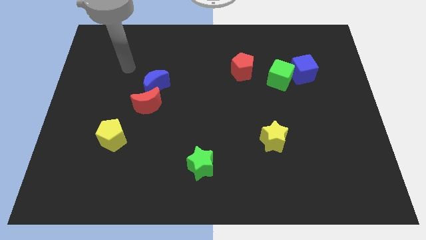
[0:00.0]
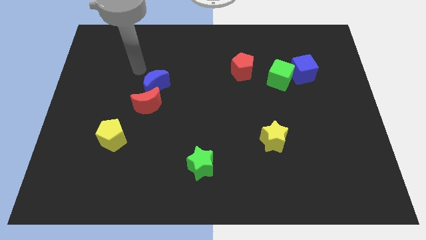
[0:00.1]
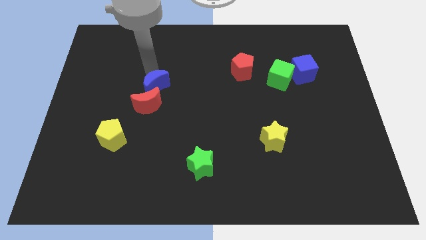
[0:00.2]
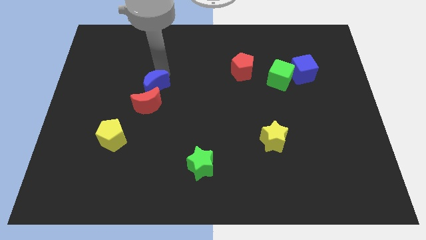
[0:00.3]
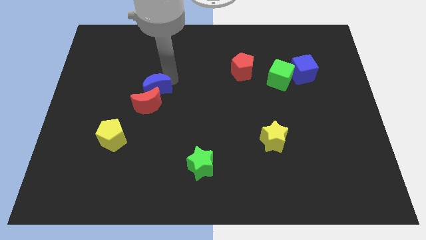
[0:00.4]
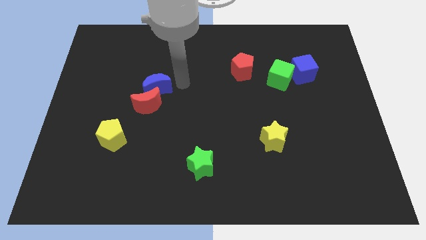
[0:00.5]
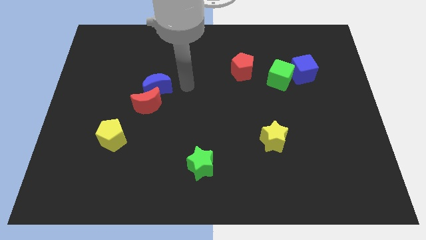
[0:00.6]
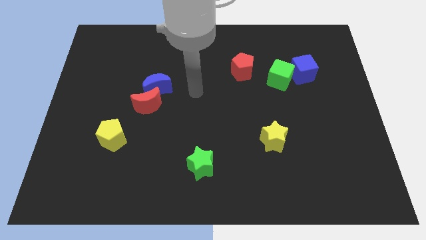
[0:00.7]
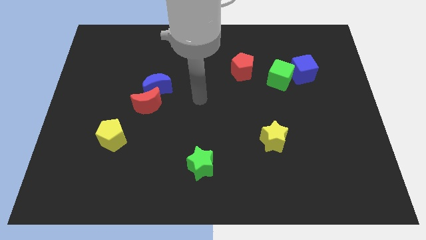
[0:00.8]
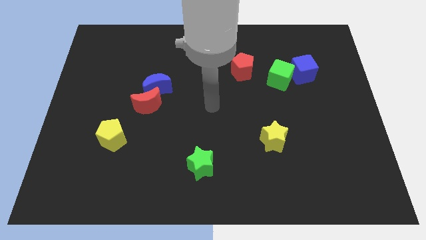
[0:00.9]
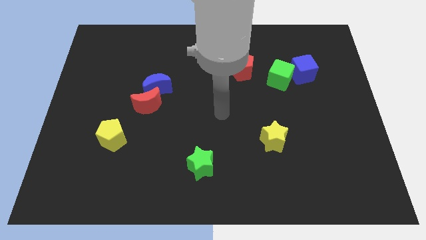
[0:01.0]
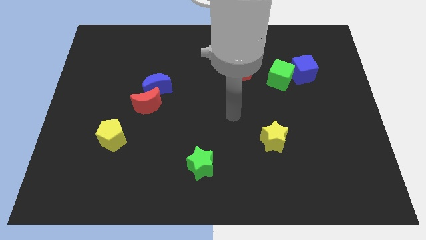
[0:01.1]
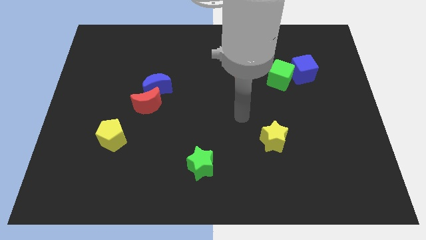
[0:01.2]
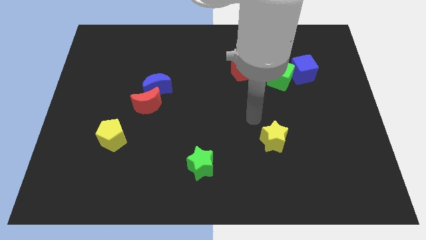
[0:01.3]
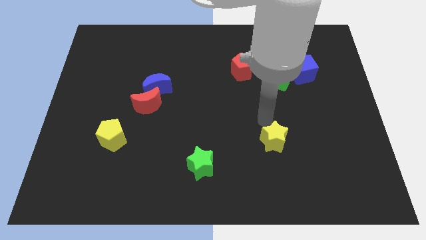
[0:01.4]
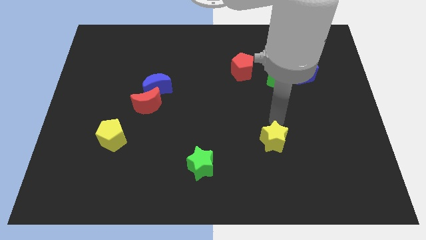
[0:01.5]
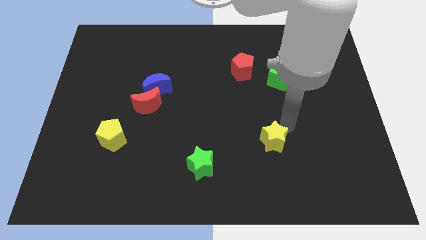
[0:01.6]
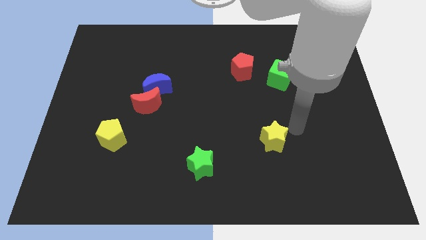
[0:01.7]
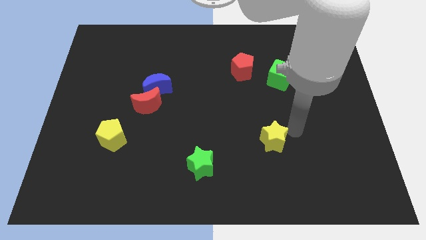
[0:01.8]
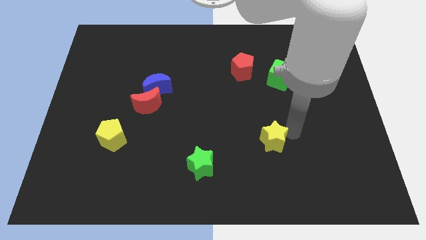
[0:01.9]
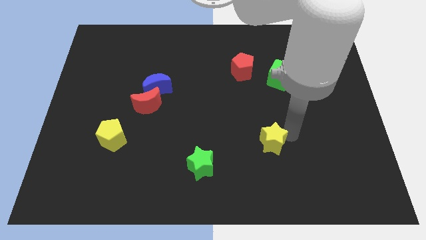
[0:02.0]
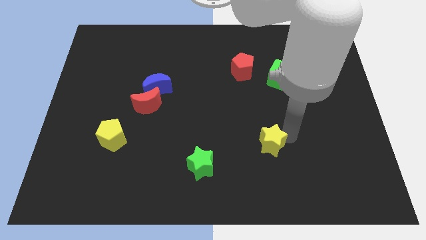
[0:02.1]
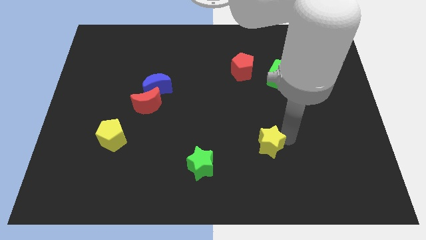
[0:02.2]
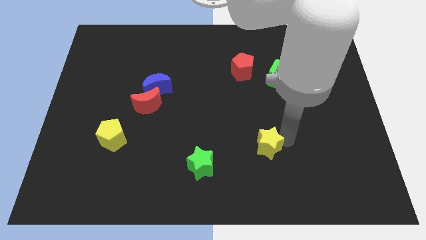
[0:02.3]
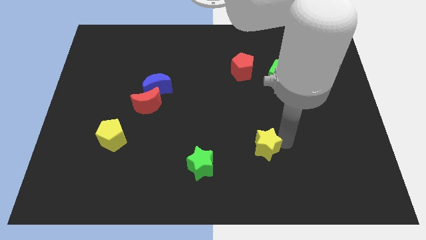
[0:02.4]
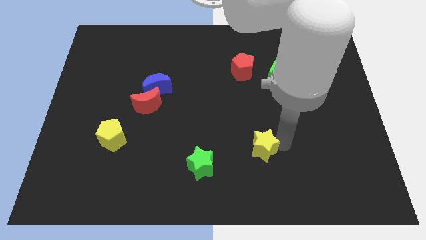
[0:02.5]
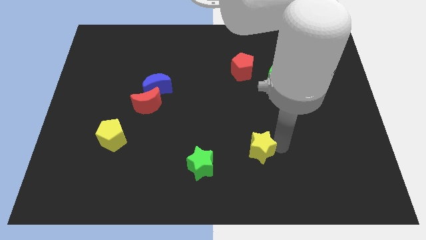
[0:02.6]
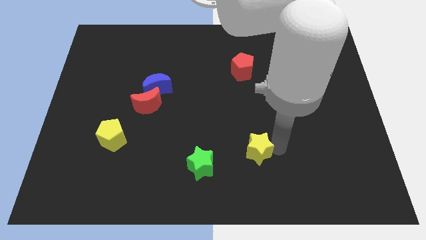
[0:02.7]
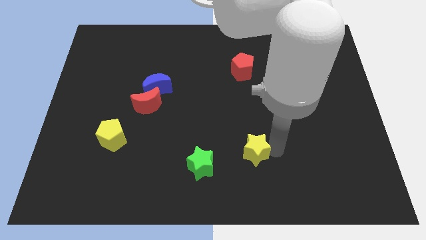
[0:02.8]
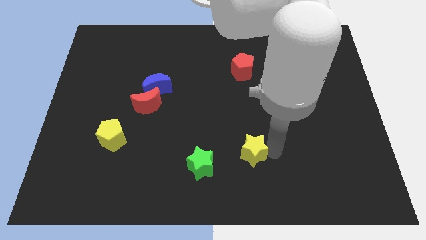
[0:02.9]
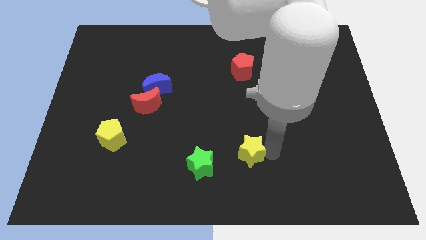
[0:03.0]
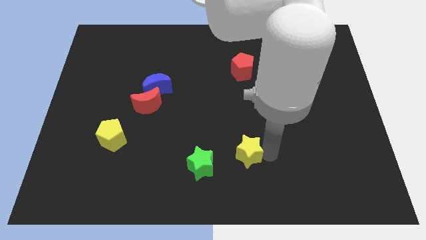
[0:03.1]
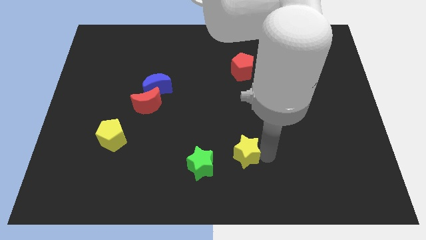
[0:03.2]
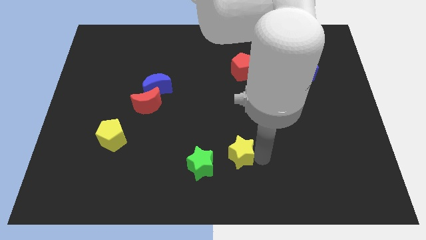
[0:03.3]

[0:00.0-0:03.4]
slightly slide the yellow star to the left

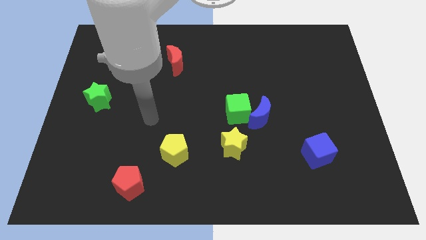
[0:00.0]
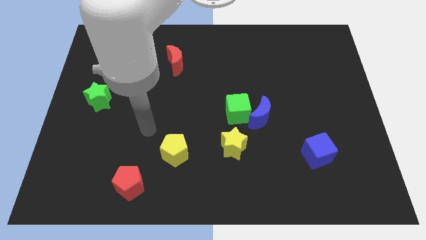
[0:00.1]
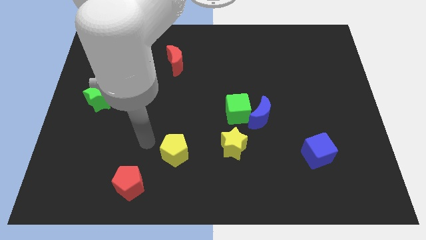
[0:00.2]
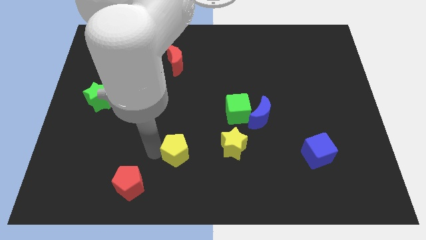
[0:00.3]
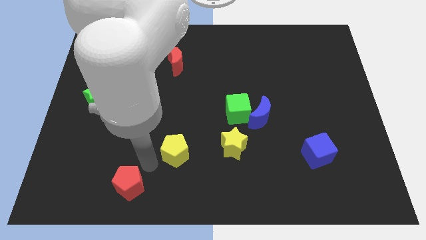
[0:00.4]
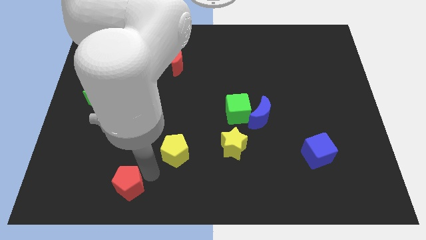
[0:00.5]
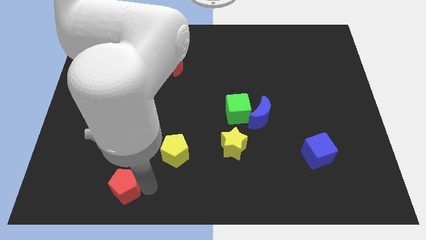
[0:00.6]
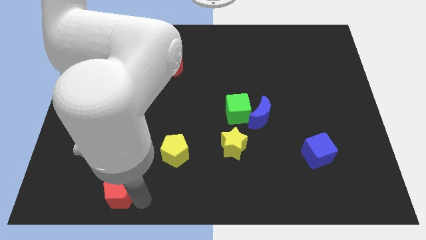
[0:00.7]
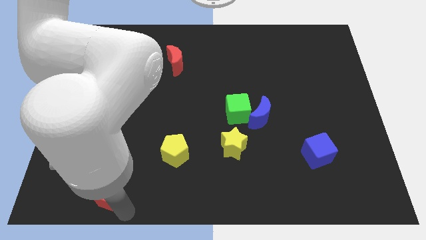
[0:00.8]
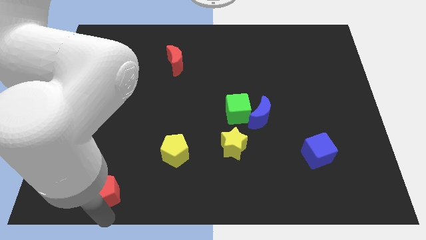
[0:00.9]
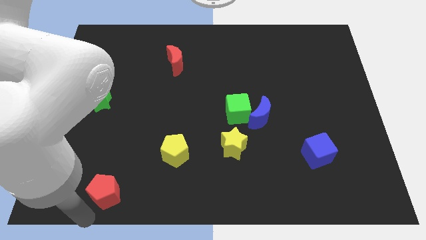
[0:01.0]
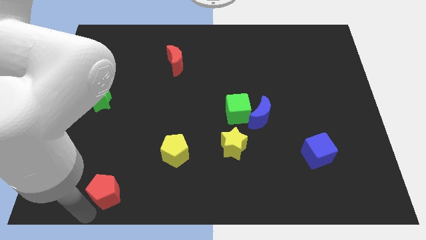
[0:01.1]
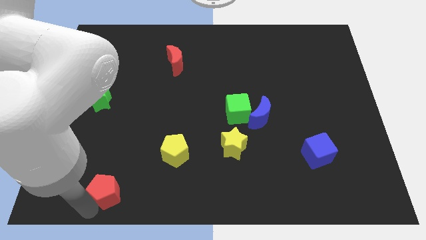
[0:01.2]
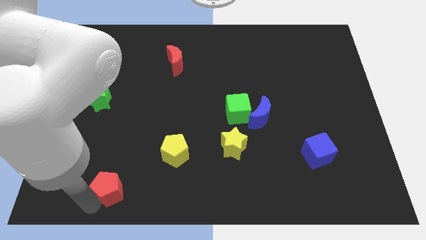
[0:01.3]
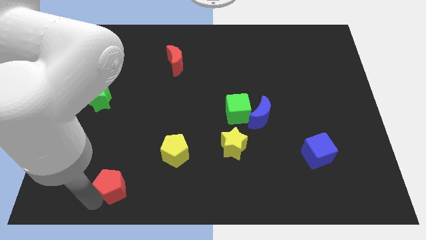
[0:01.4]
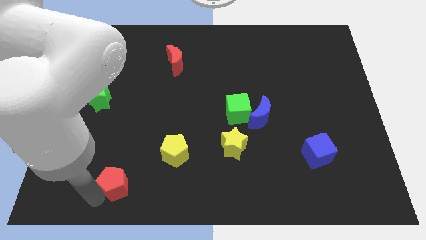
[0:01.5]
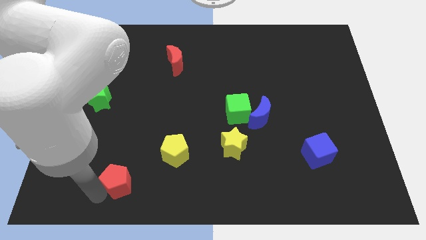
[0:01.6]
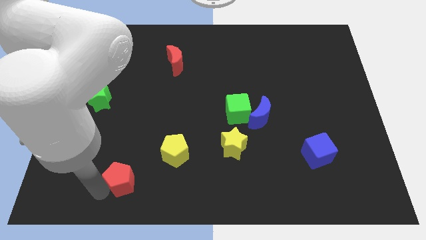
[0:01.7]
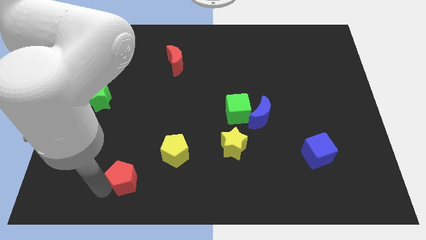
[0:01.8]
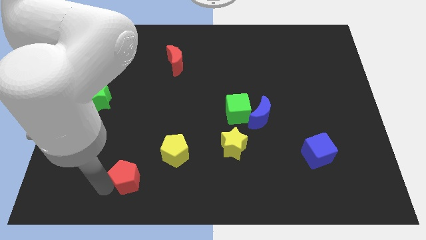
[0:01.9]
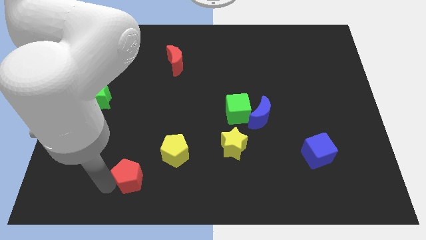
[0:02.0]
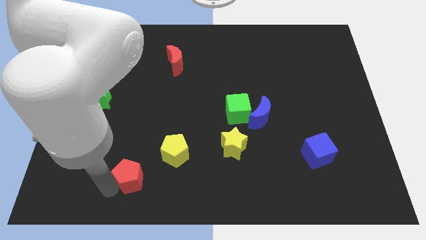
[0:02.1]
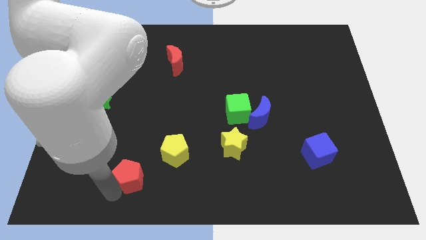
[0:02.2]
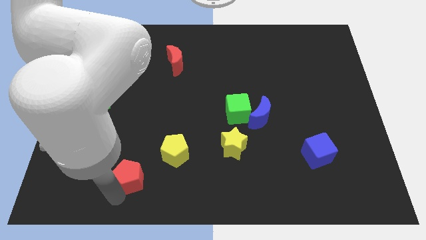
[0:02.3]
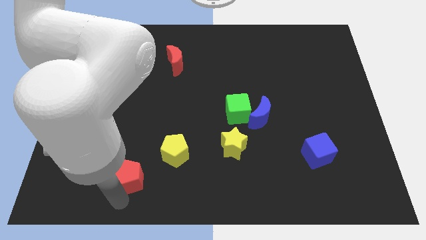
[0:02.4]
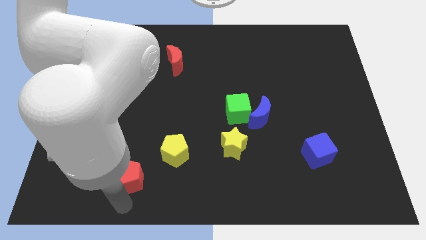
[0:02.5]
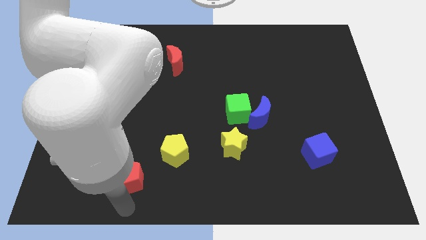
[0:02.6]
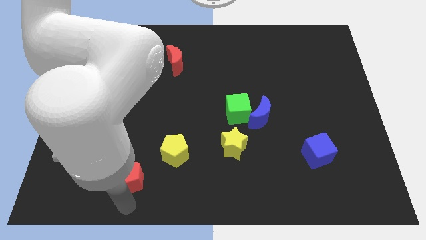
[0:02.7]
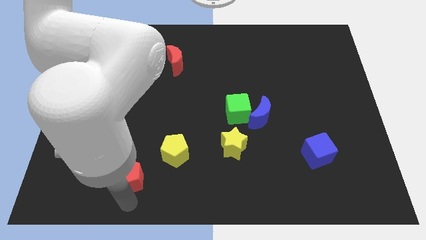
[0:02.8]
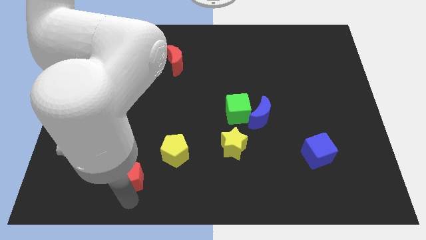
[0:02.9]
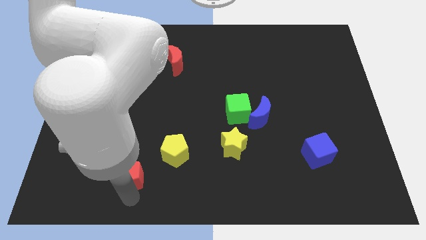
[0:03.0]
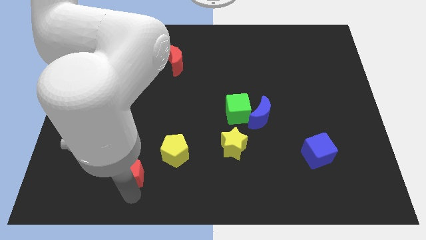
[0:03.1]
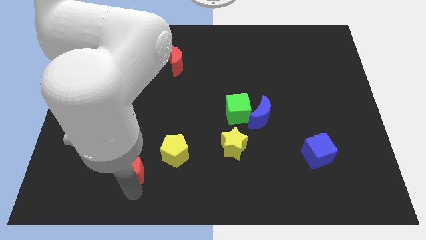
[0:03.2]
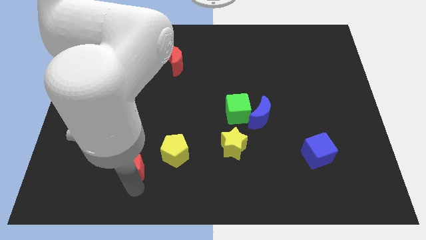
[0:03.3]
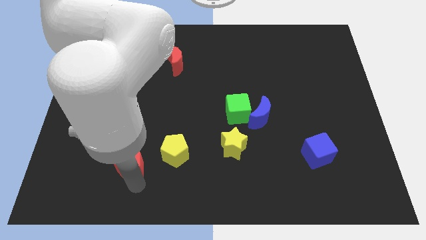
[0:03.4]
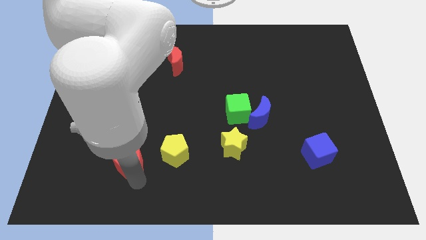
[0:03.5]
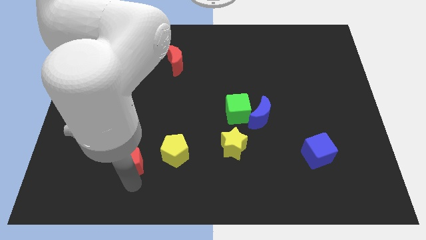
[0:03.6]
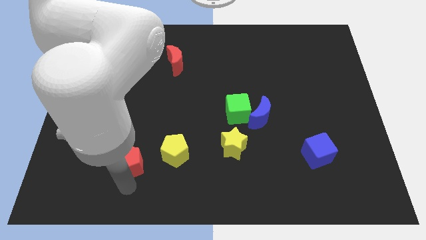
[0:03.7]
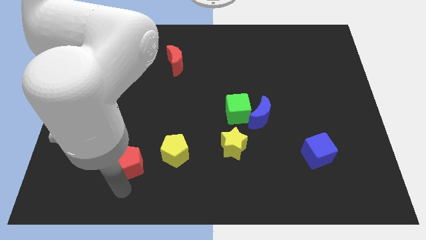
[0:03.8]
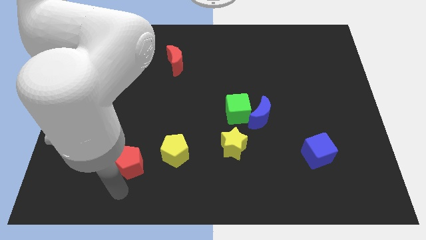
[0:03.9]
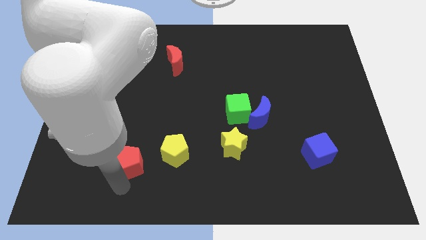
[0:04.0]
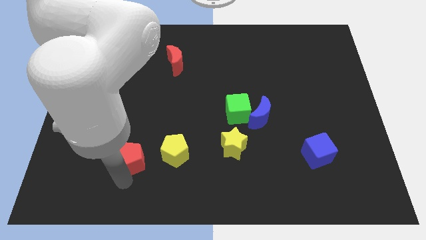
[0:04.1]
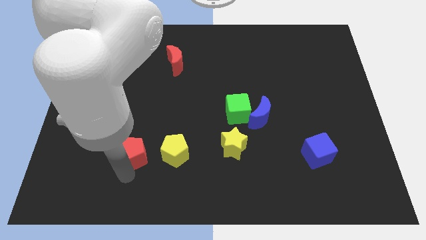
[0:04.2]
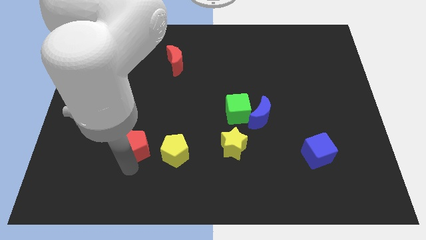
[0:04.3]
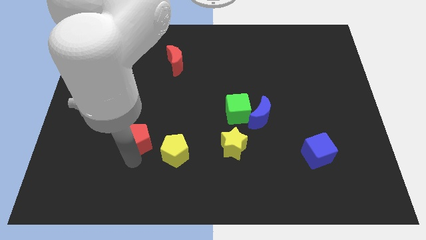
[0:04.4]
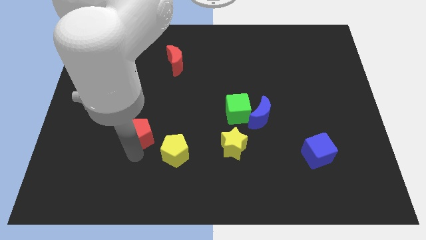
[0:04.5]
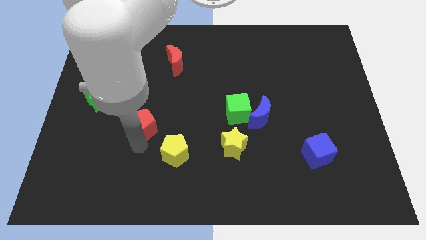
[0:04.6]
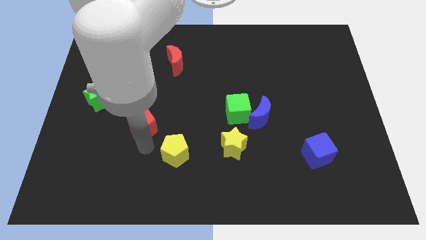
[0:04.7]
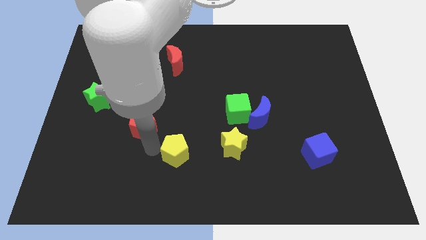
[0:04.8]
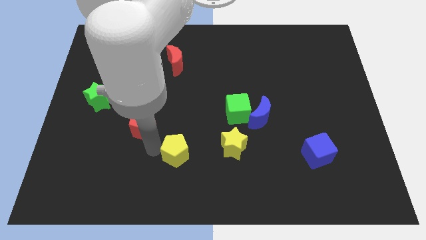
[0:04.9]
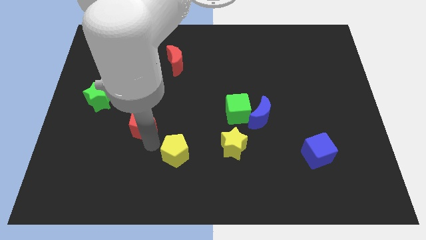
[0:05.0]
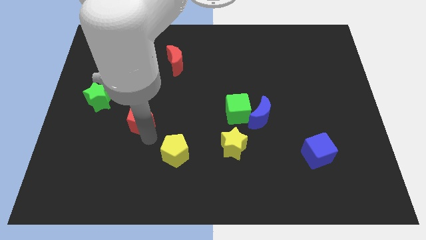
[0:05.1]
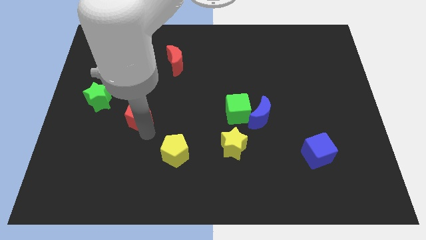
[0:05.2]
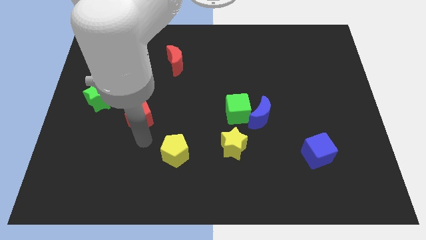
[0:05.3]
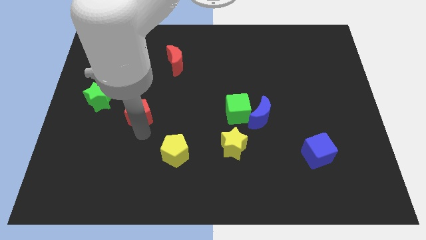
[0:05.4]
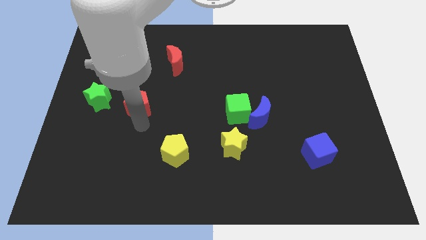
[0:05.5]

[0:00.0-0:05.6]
move the red pentagon up
